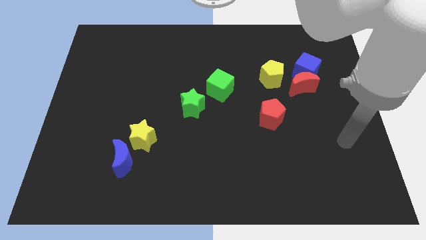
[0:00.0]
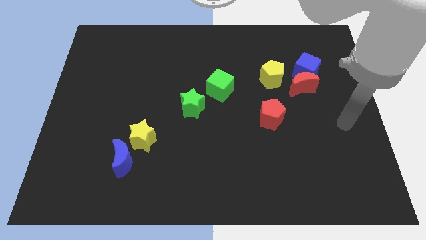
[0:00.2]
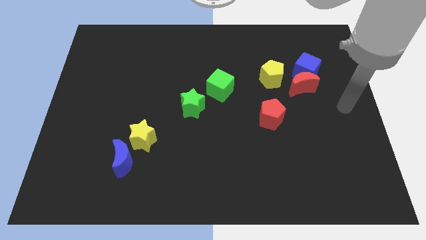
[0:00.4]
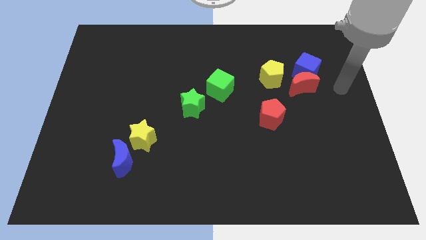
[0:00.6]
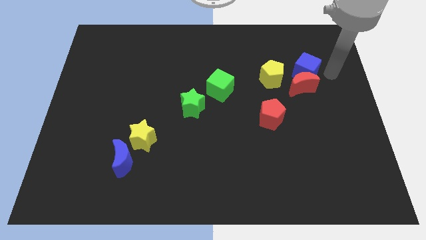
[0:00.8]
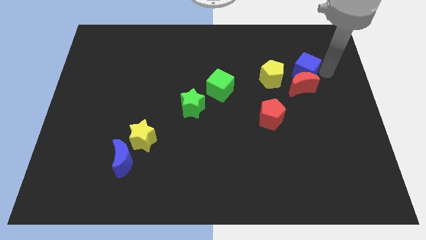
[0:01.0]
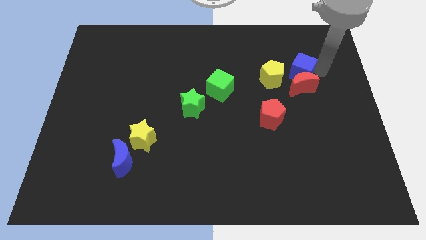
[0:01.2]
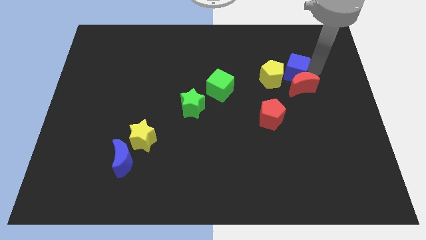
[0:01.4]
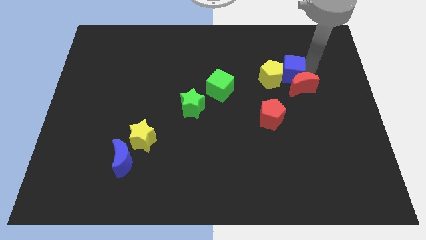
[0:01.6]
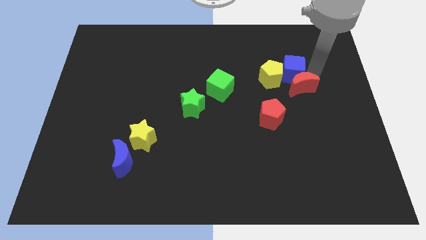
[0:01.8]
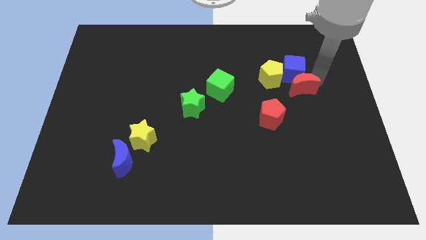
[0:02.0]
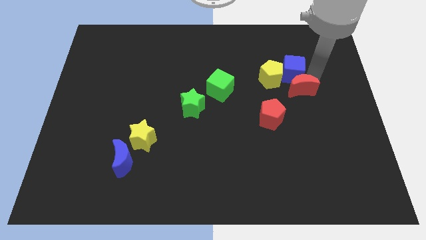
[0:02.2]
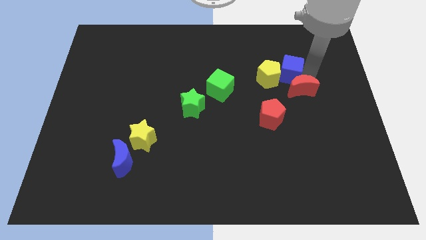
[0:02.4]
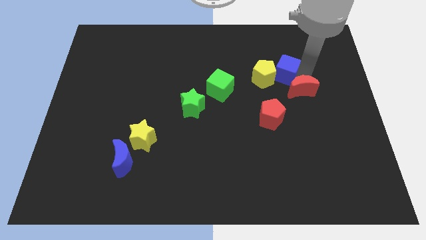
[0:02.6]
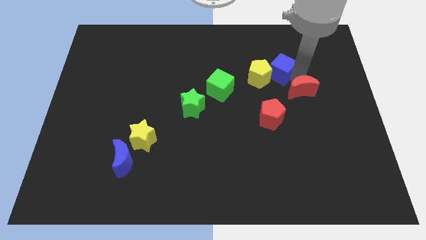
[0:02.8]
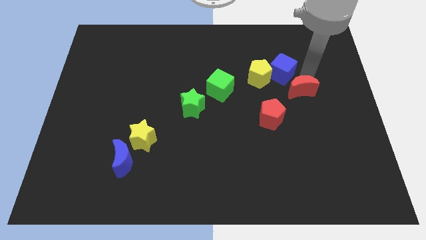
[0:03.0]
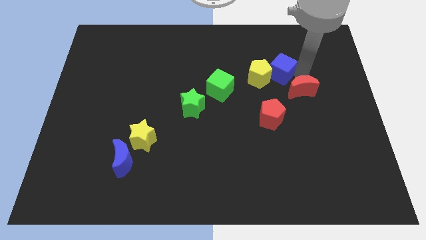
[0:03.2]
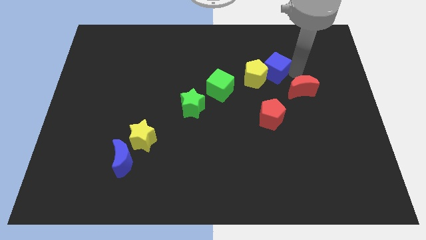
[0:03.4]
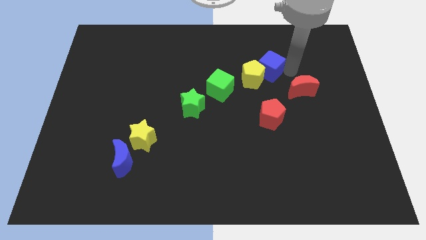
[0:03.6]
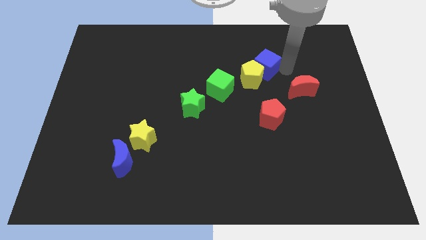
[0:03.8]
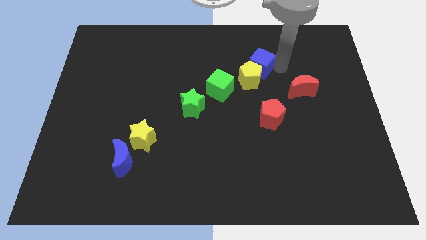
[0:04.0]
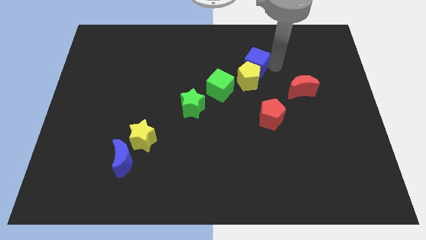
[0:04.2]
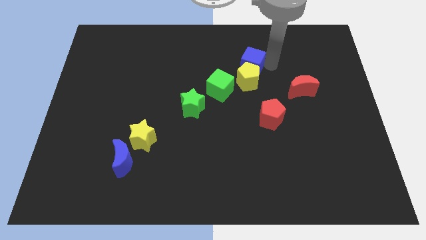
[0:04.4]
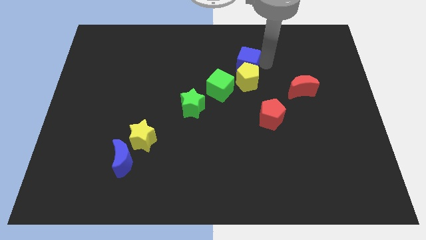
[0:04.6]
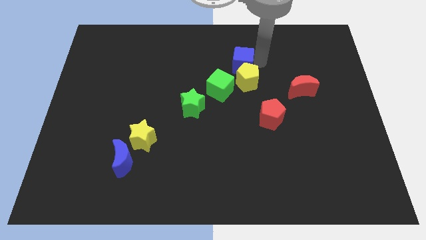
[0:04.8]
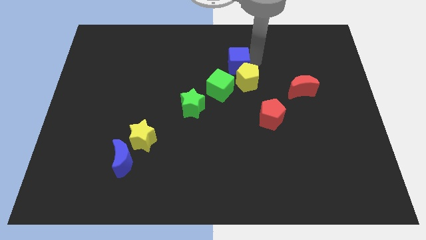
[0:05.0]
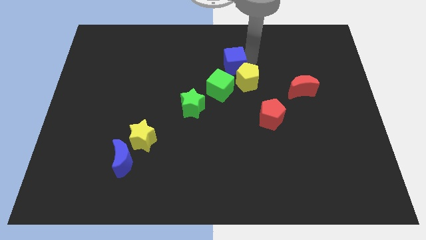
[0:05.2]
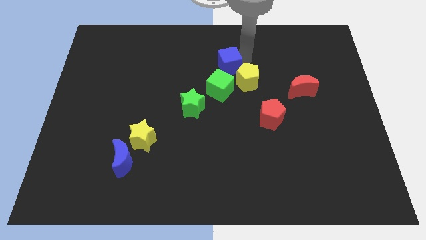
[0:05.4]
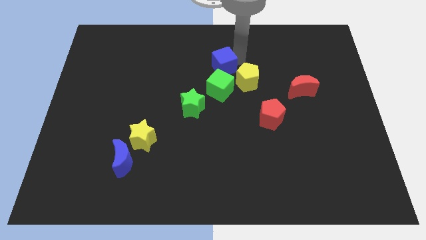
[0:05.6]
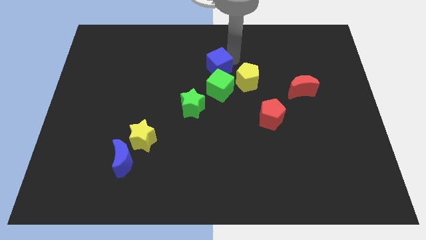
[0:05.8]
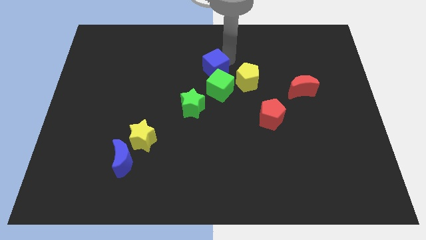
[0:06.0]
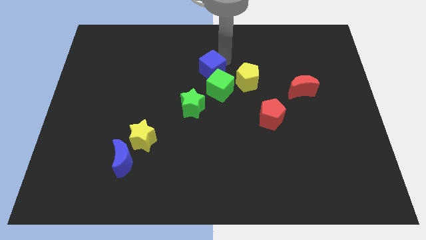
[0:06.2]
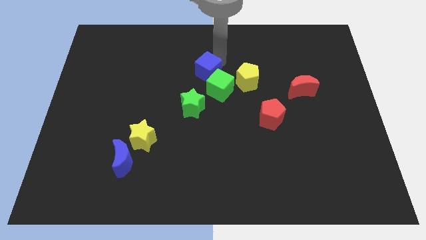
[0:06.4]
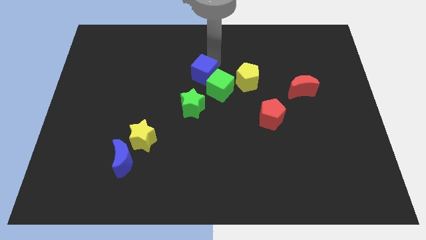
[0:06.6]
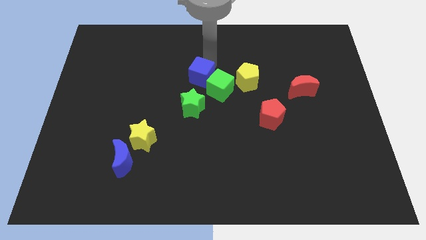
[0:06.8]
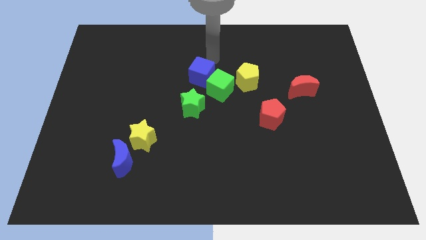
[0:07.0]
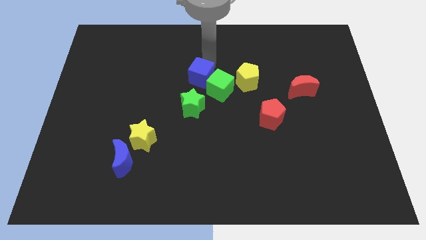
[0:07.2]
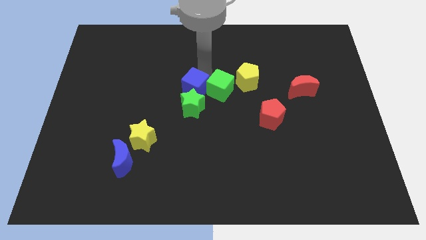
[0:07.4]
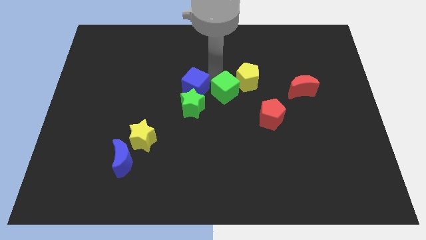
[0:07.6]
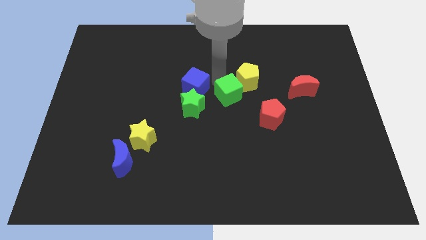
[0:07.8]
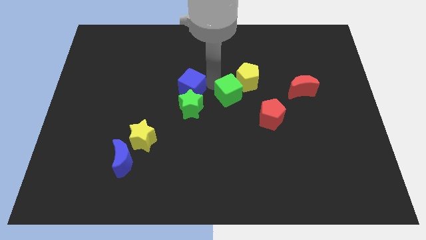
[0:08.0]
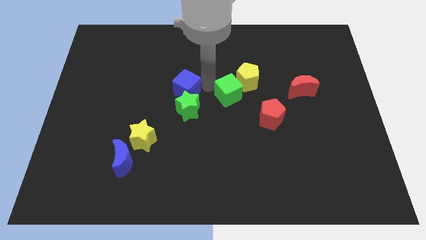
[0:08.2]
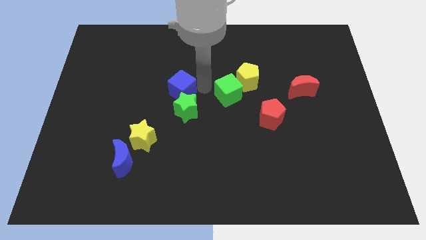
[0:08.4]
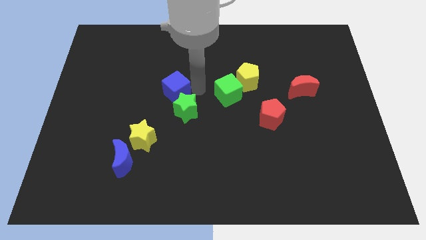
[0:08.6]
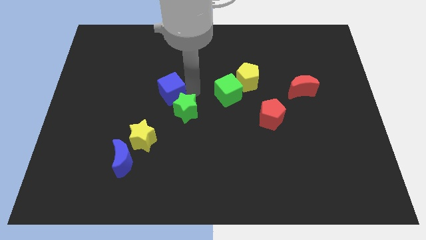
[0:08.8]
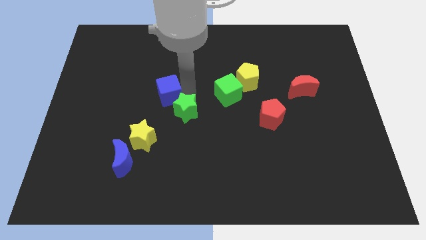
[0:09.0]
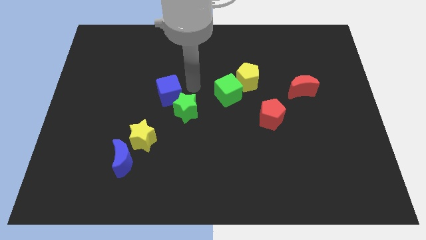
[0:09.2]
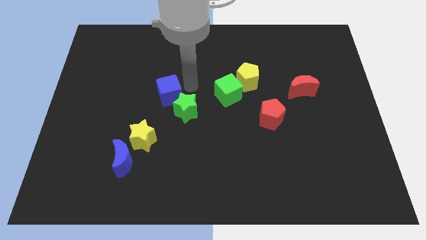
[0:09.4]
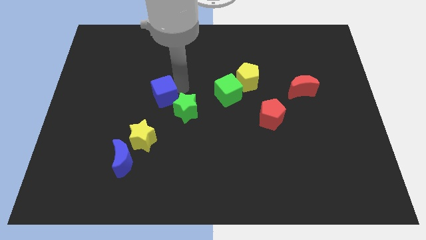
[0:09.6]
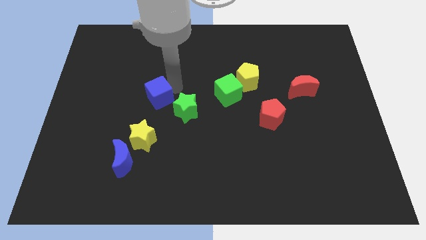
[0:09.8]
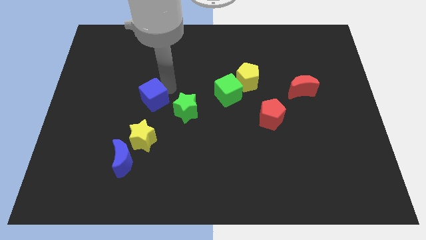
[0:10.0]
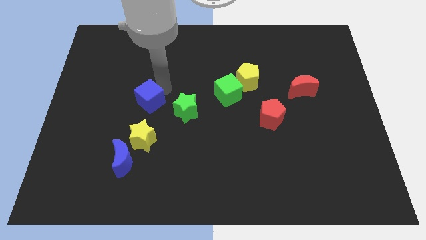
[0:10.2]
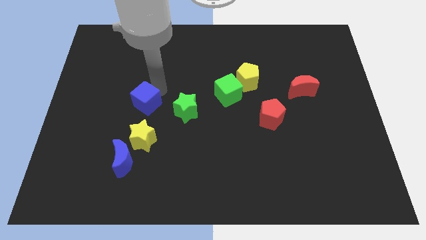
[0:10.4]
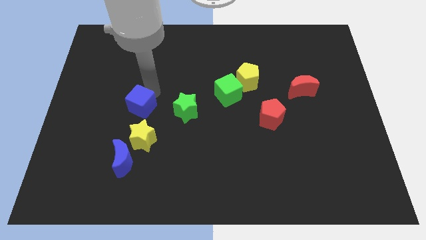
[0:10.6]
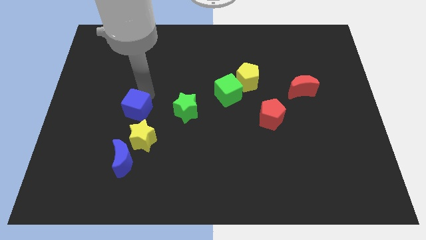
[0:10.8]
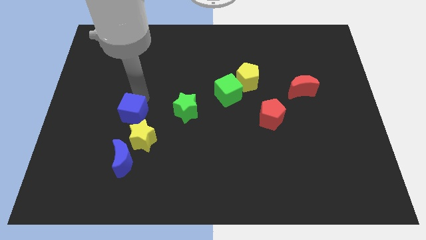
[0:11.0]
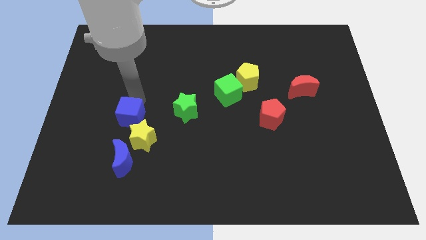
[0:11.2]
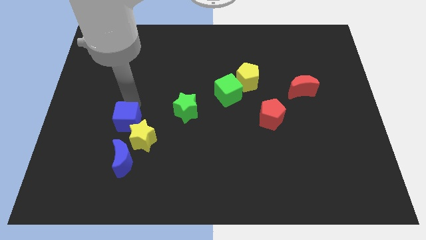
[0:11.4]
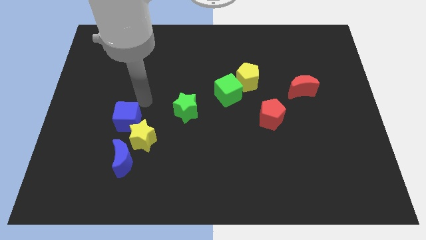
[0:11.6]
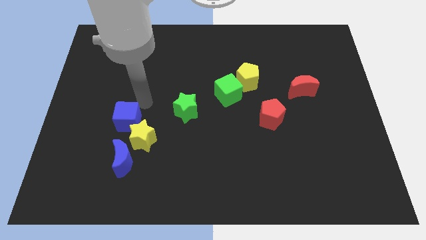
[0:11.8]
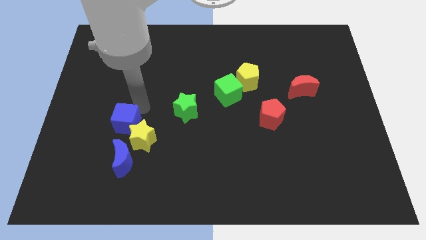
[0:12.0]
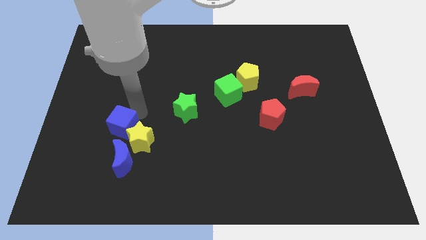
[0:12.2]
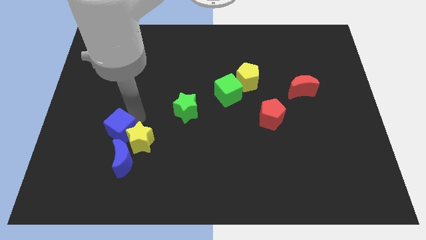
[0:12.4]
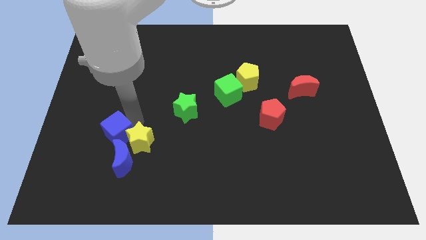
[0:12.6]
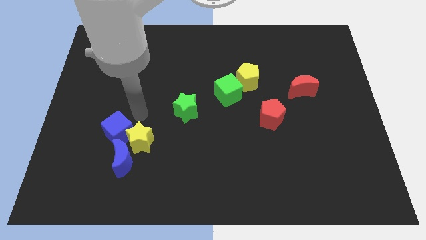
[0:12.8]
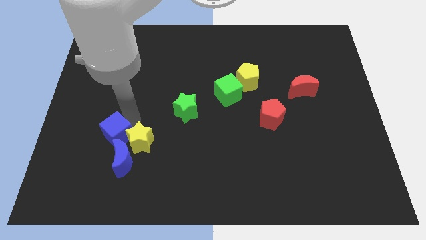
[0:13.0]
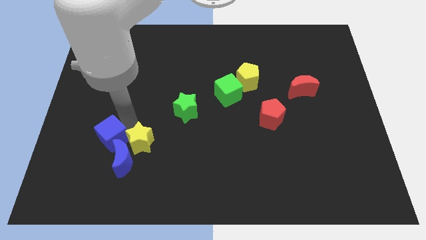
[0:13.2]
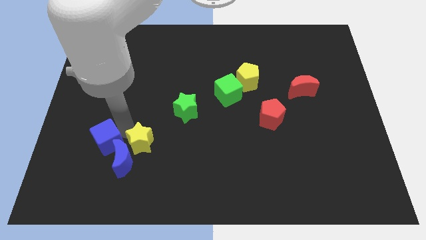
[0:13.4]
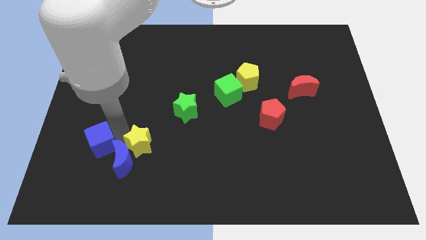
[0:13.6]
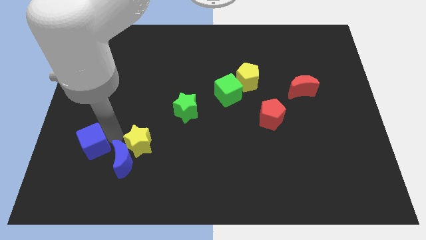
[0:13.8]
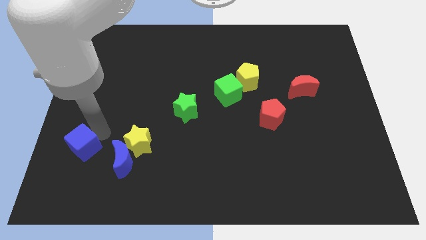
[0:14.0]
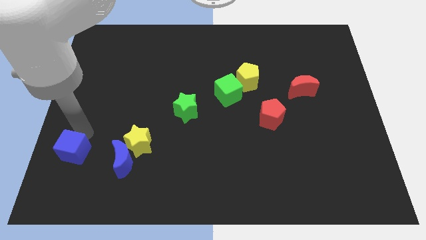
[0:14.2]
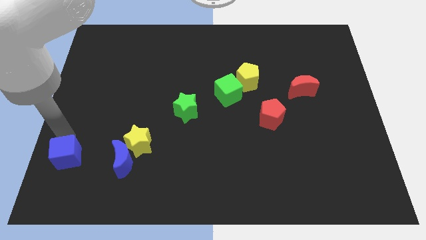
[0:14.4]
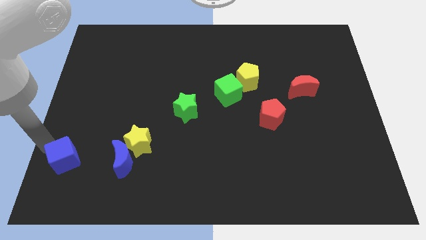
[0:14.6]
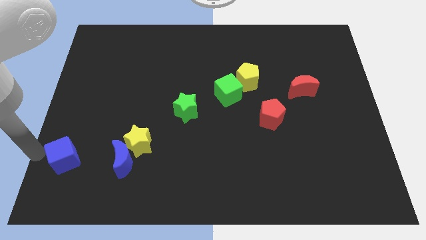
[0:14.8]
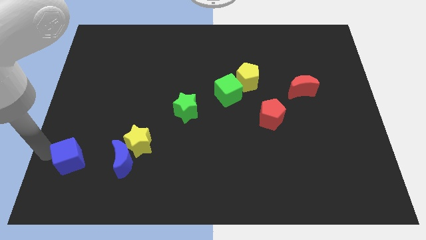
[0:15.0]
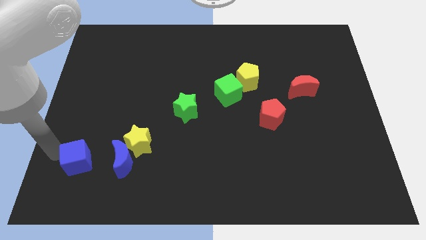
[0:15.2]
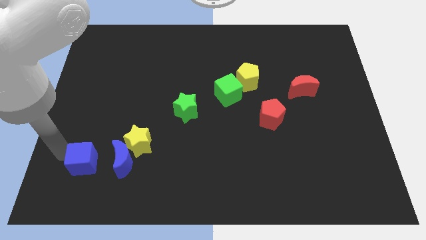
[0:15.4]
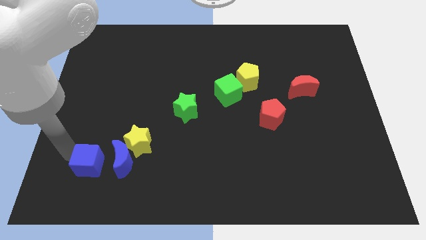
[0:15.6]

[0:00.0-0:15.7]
put the blue cube diagonally down and to the left of the yellow star
